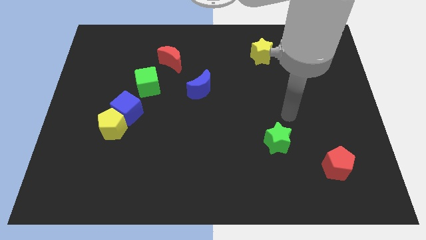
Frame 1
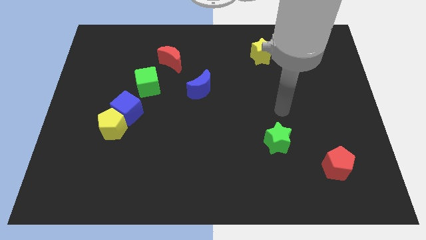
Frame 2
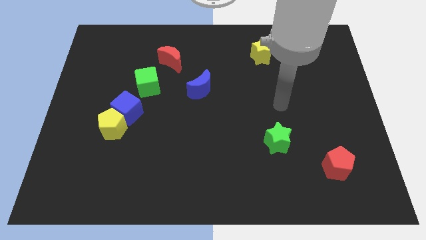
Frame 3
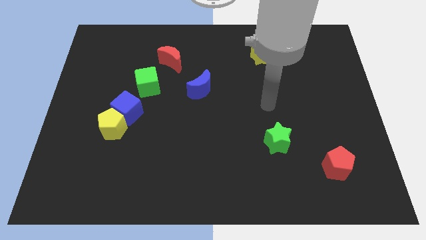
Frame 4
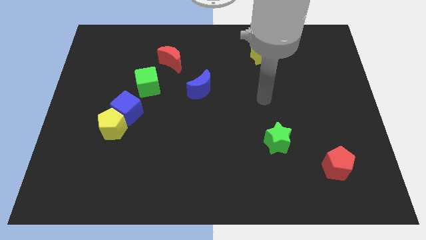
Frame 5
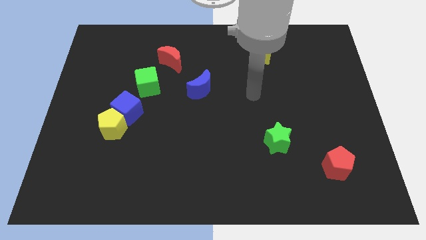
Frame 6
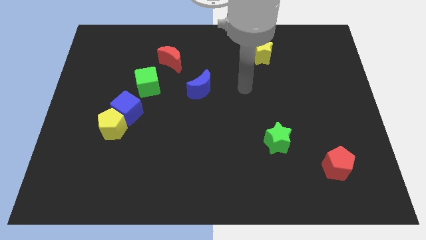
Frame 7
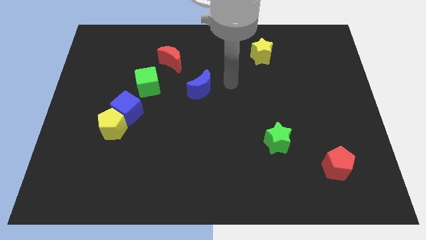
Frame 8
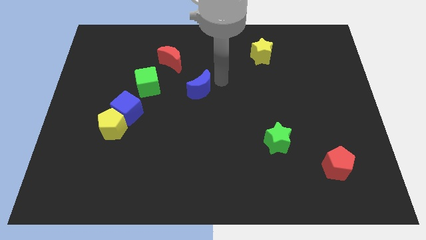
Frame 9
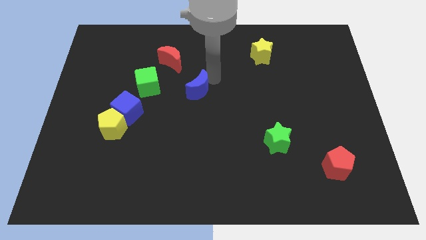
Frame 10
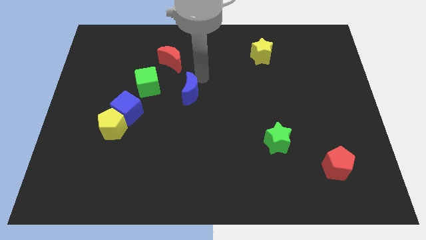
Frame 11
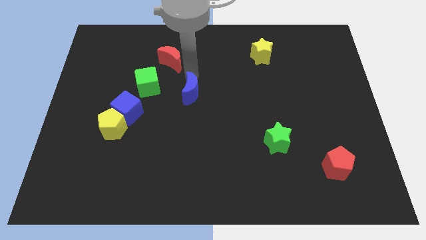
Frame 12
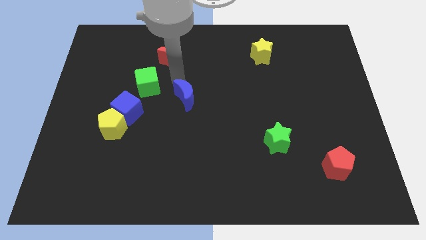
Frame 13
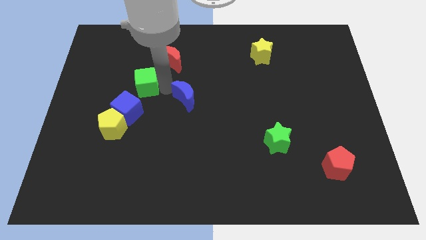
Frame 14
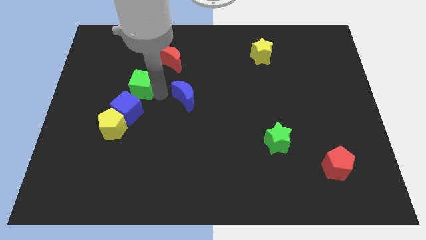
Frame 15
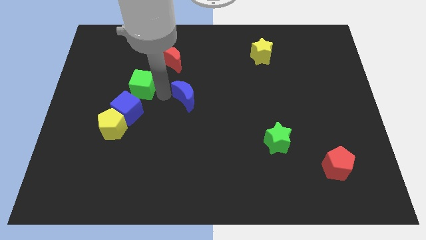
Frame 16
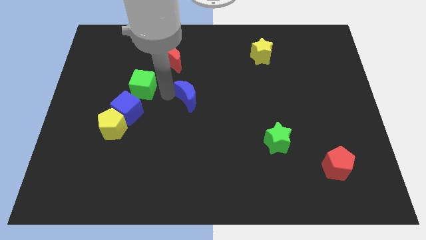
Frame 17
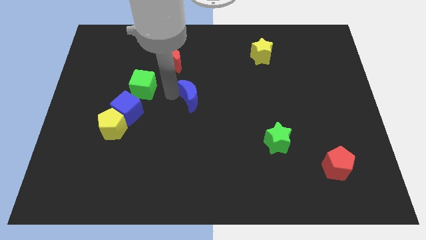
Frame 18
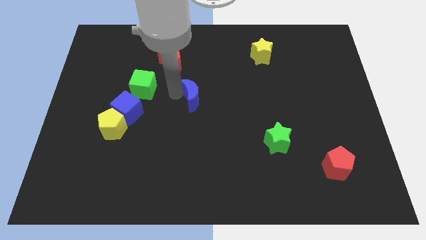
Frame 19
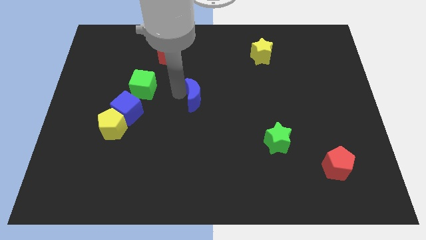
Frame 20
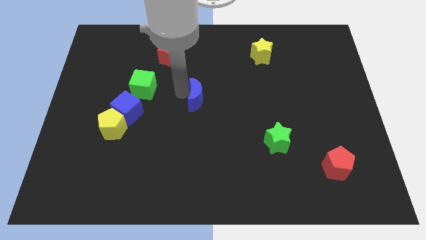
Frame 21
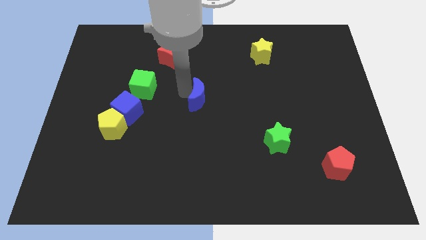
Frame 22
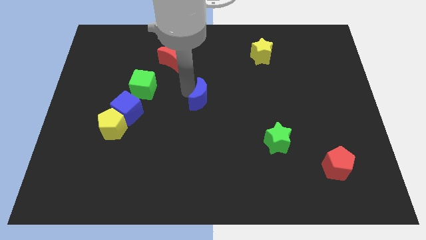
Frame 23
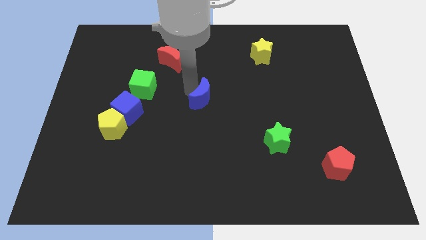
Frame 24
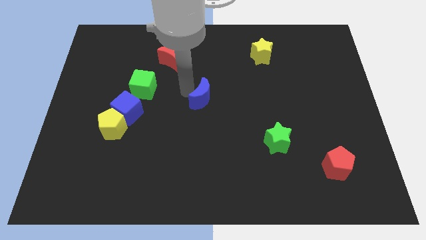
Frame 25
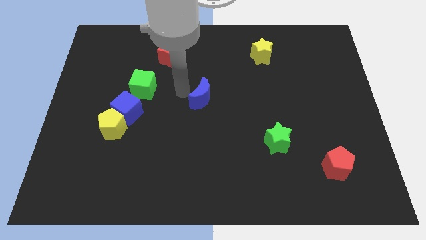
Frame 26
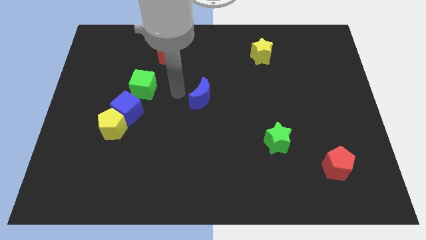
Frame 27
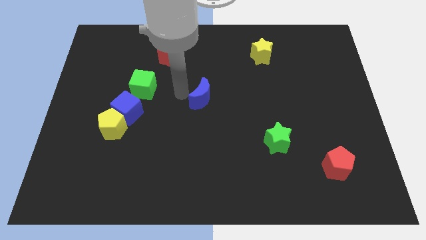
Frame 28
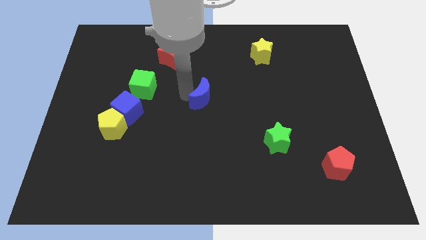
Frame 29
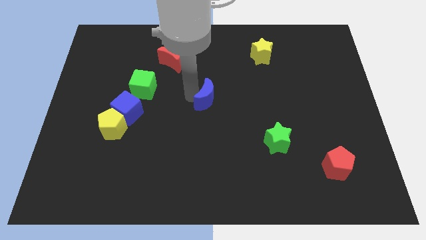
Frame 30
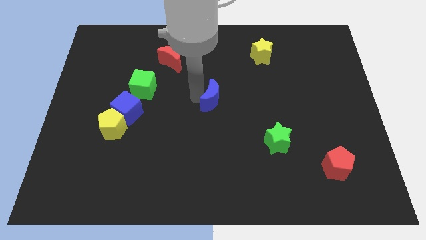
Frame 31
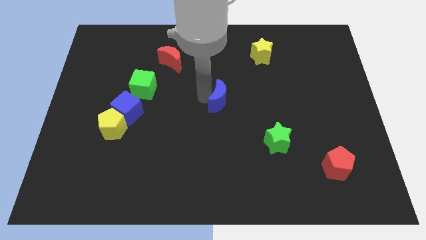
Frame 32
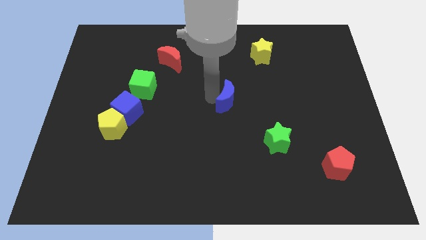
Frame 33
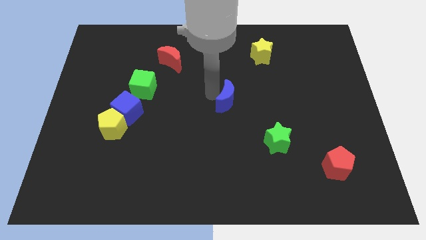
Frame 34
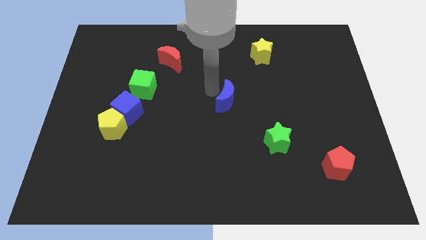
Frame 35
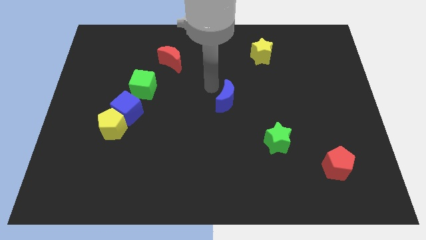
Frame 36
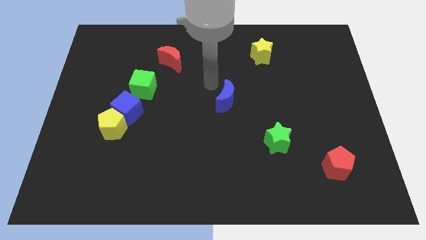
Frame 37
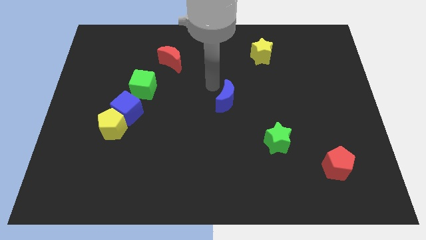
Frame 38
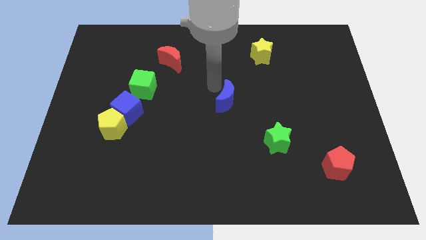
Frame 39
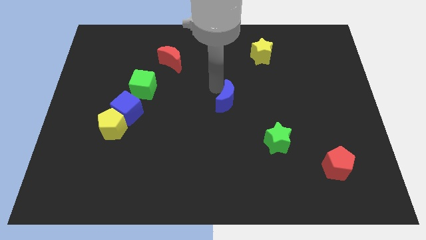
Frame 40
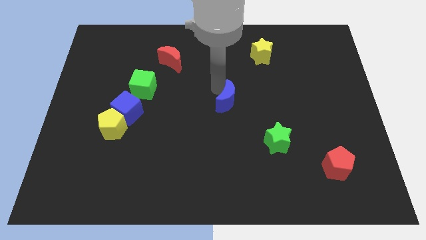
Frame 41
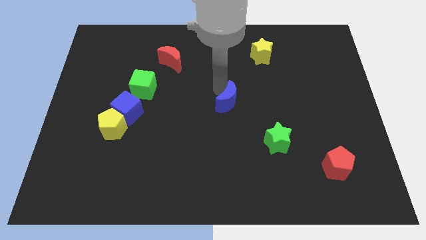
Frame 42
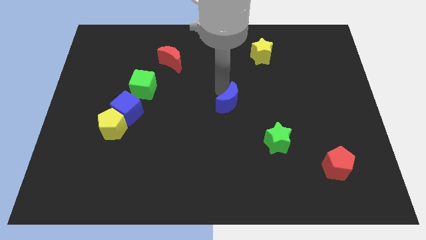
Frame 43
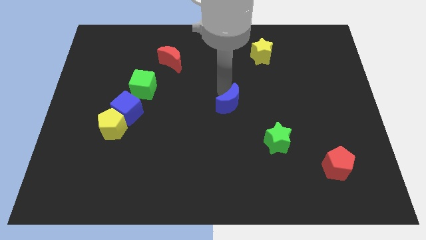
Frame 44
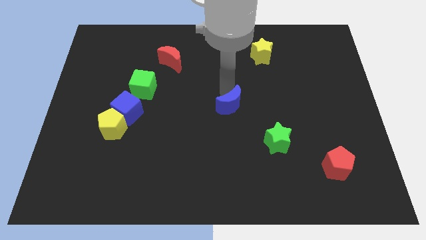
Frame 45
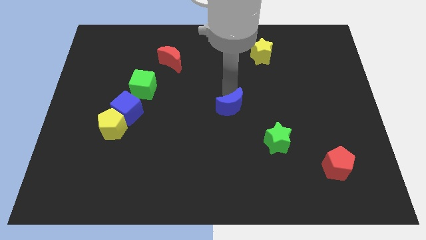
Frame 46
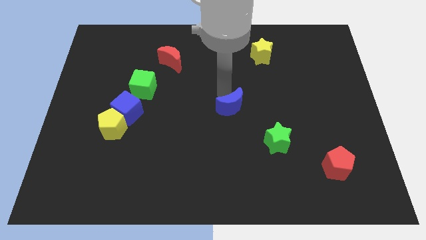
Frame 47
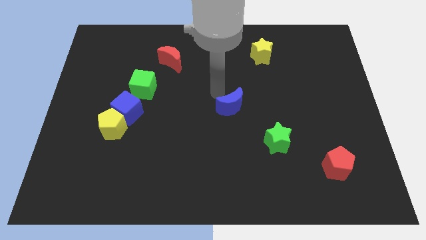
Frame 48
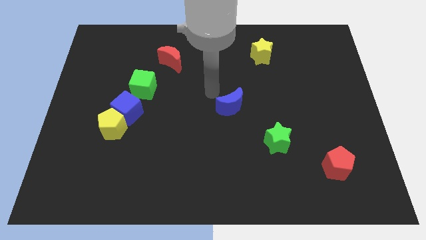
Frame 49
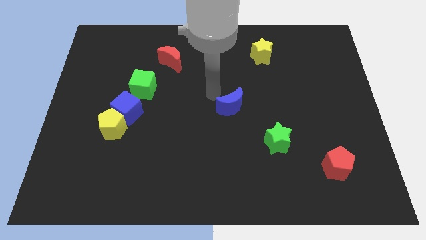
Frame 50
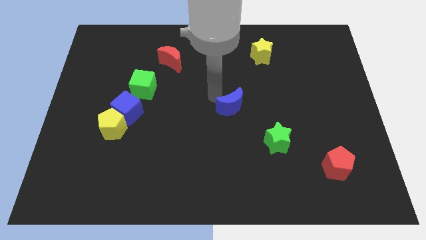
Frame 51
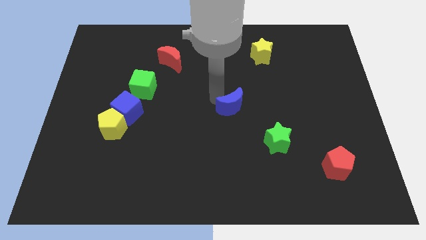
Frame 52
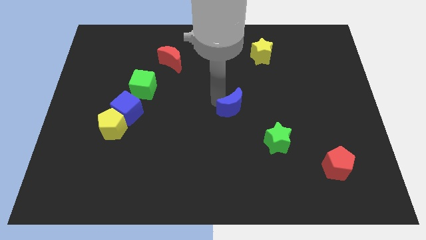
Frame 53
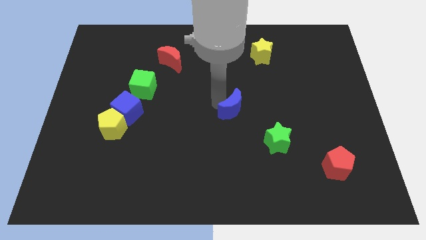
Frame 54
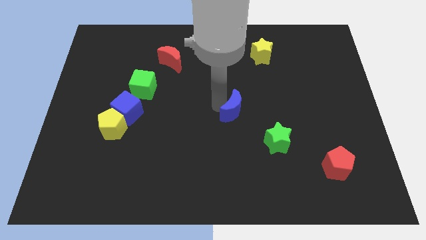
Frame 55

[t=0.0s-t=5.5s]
put the blue moon to the top left side of the green star

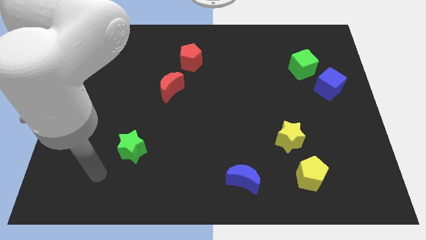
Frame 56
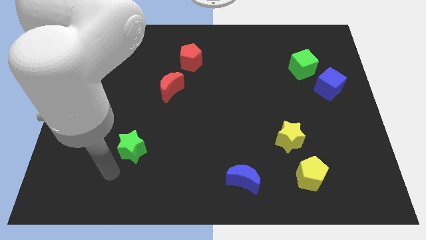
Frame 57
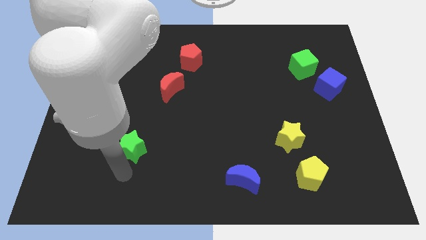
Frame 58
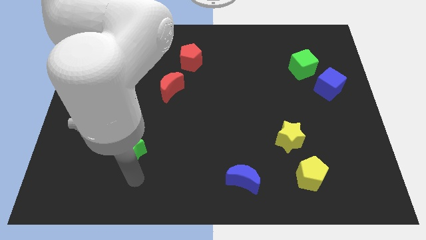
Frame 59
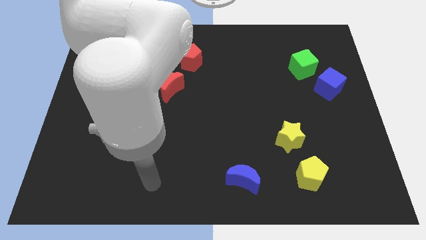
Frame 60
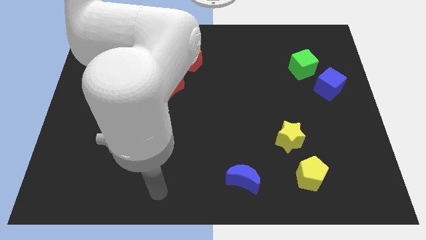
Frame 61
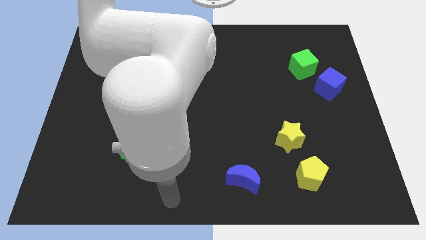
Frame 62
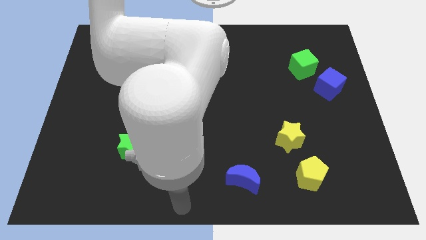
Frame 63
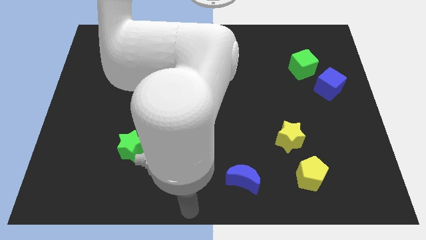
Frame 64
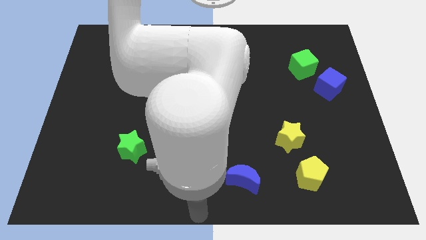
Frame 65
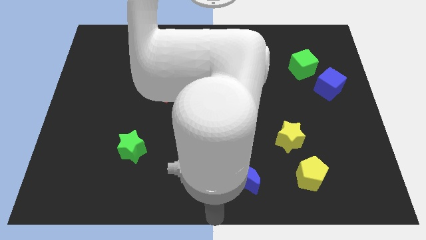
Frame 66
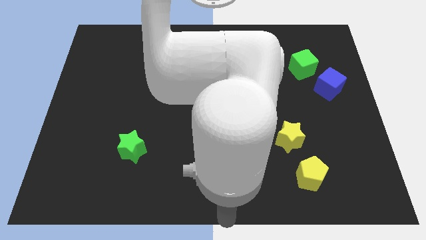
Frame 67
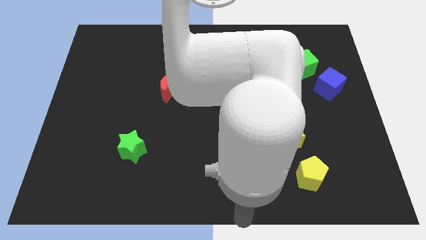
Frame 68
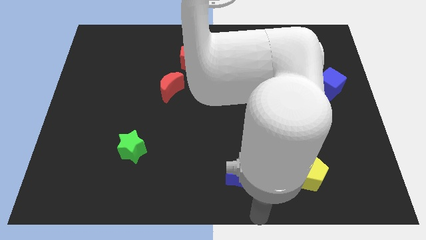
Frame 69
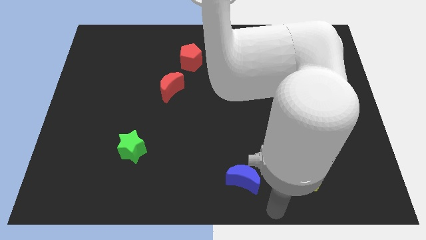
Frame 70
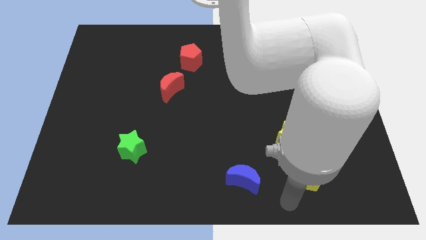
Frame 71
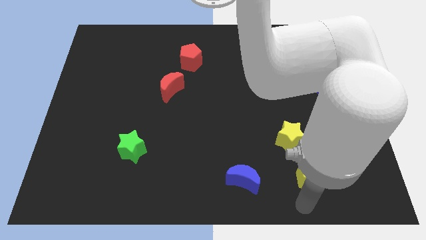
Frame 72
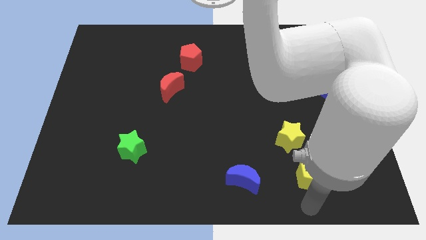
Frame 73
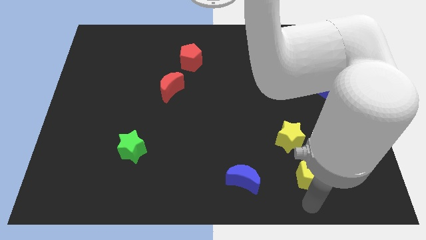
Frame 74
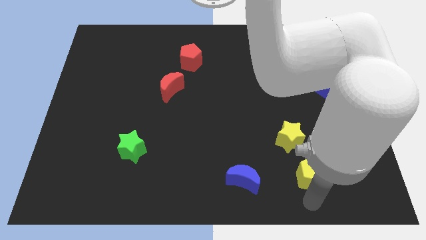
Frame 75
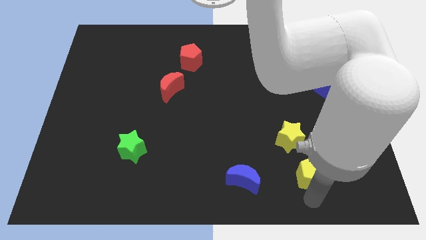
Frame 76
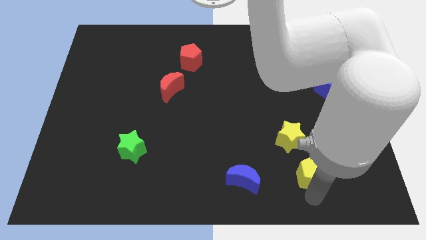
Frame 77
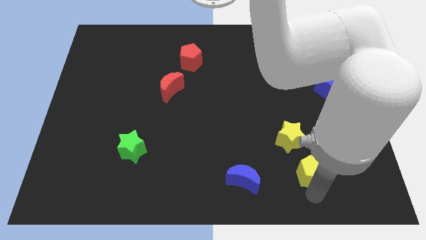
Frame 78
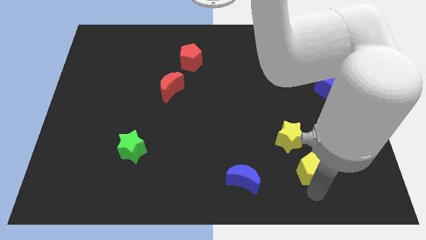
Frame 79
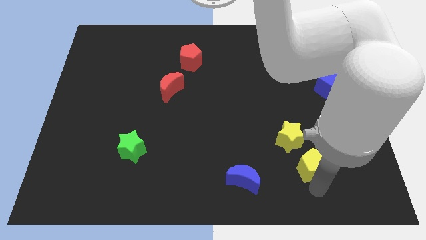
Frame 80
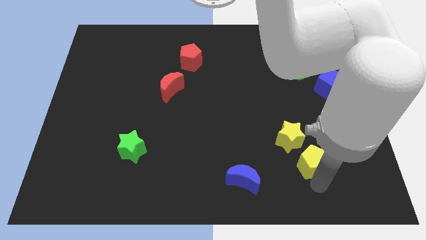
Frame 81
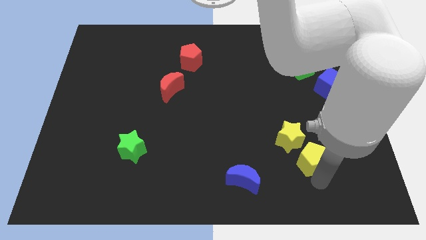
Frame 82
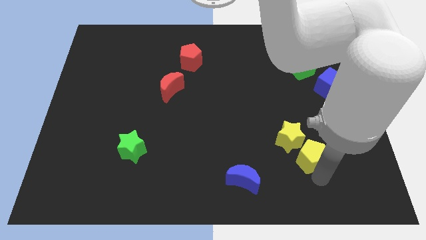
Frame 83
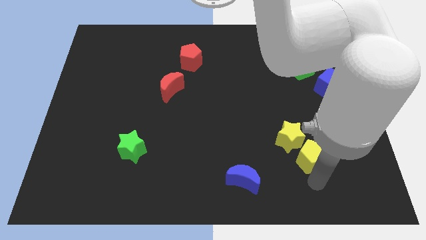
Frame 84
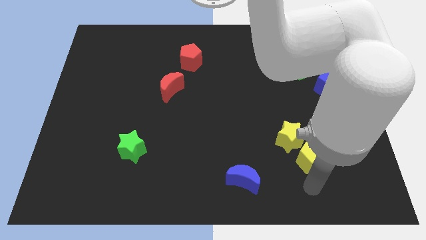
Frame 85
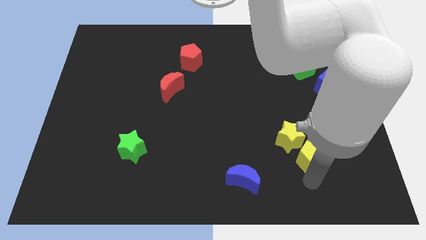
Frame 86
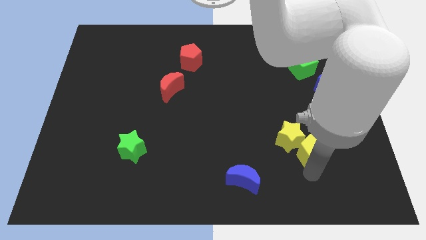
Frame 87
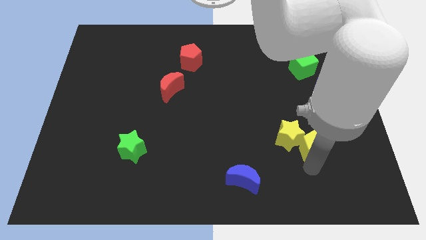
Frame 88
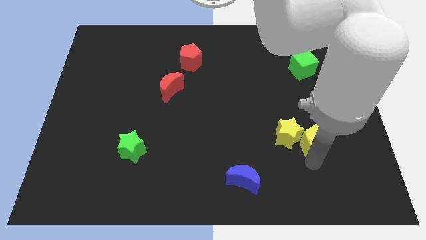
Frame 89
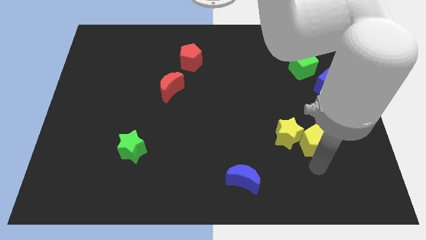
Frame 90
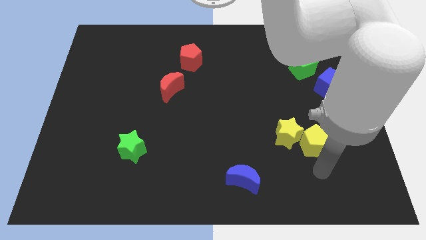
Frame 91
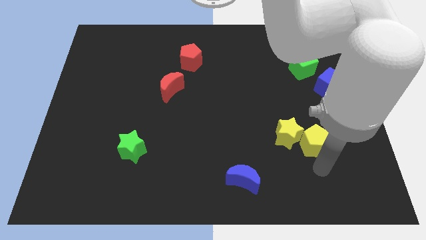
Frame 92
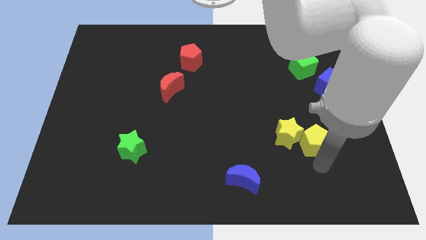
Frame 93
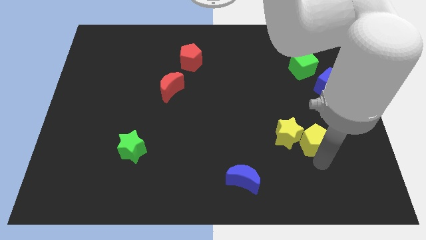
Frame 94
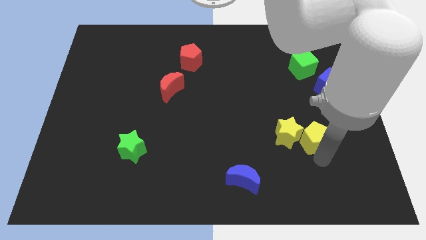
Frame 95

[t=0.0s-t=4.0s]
move the yellow pentagon diagonally up and to the right of the yellow star
